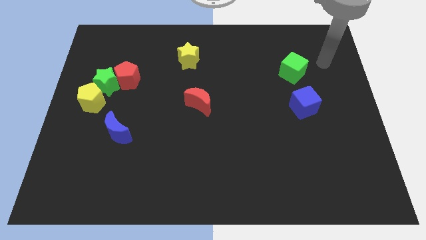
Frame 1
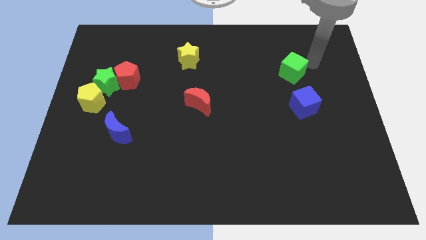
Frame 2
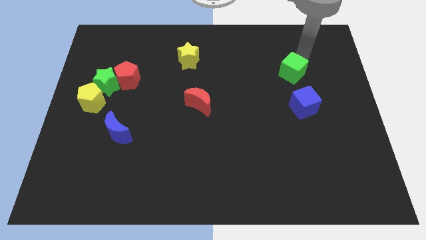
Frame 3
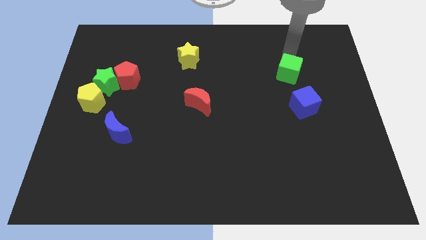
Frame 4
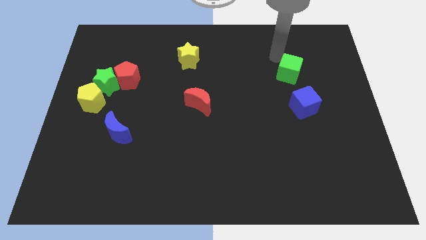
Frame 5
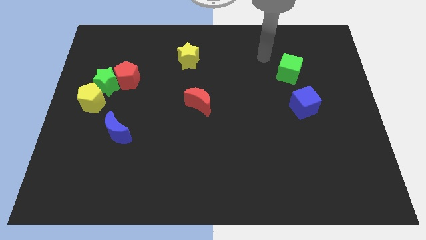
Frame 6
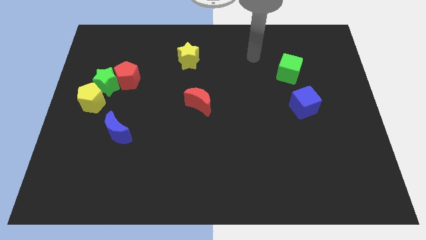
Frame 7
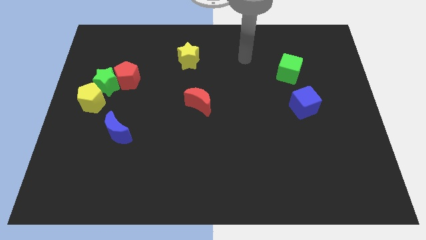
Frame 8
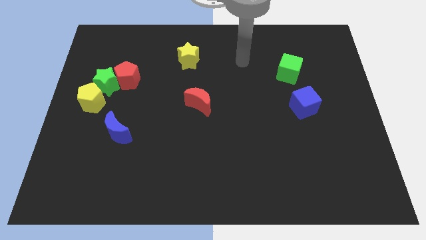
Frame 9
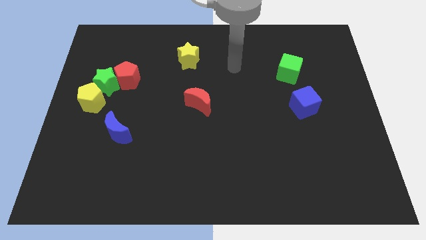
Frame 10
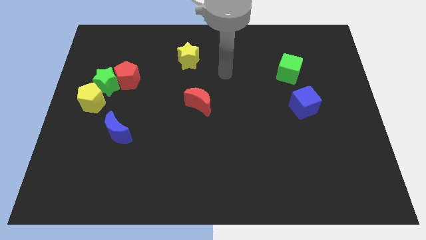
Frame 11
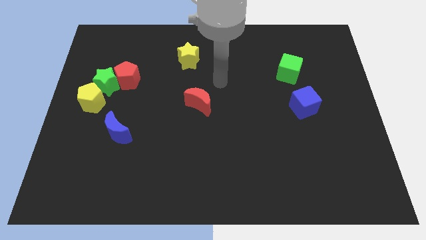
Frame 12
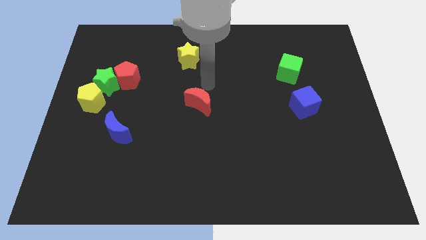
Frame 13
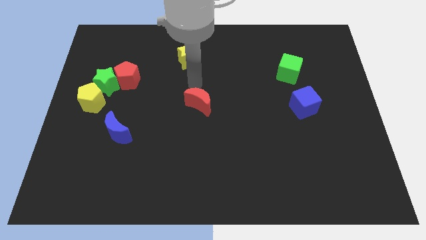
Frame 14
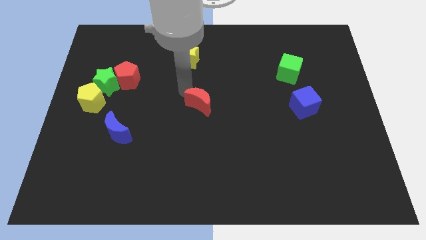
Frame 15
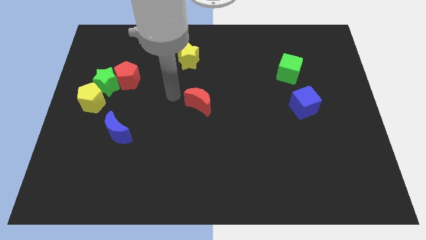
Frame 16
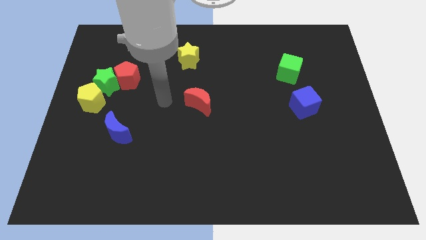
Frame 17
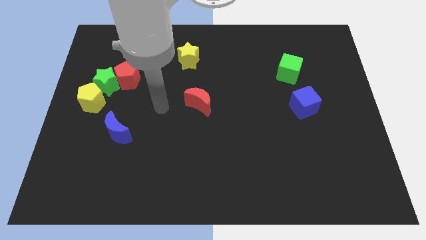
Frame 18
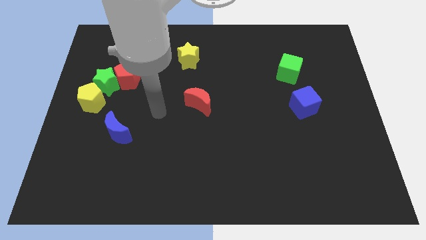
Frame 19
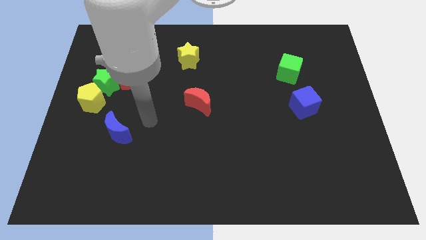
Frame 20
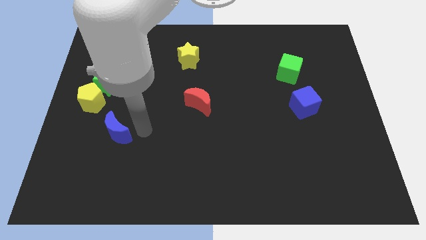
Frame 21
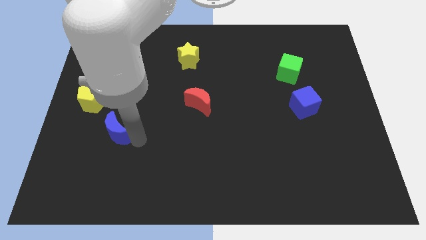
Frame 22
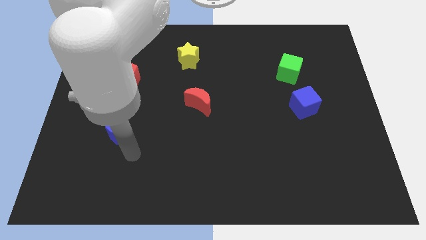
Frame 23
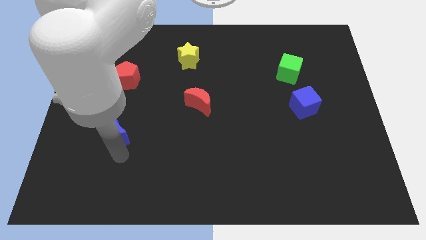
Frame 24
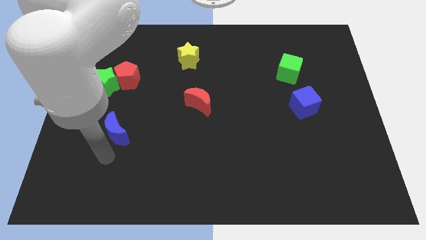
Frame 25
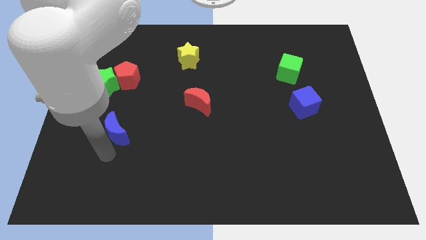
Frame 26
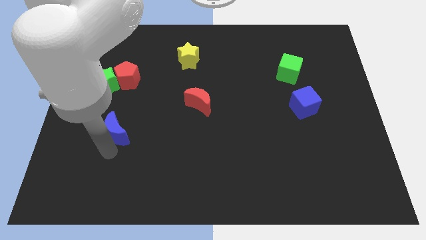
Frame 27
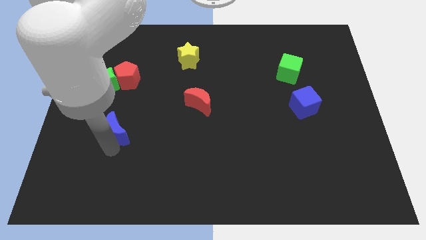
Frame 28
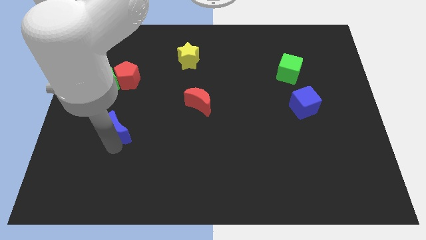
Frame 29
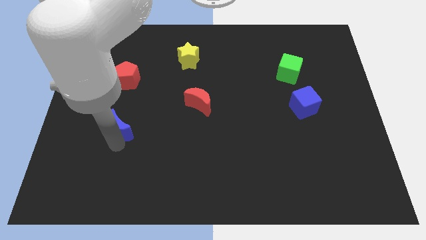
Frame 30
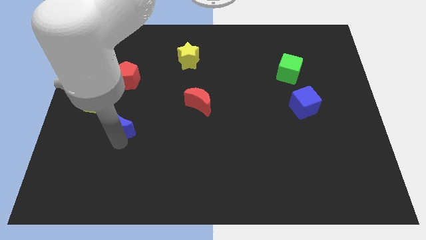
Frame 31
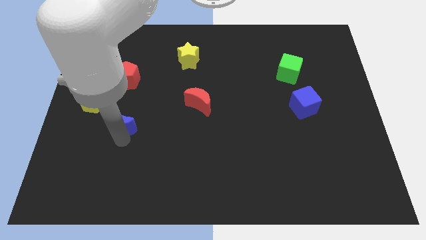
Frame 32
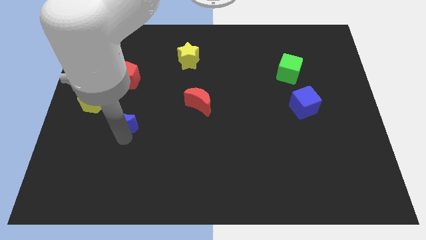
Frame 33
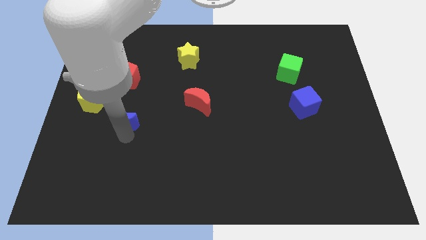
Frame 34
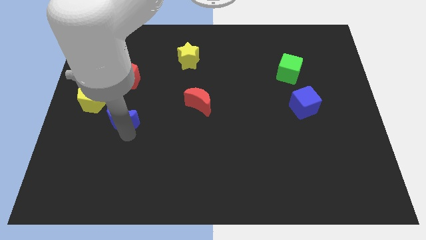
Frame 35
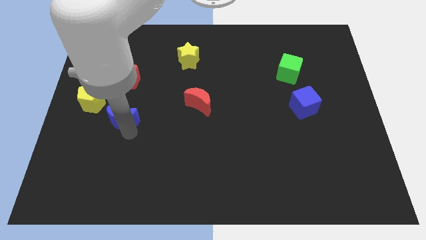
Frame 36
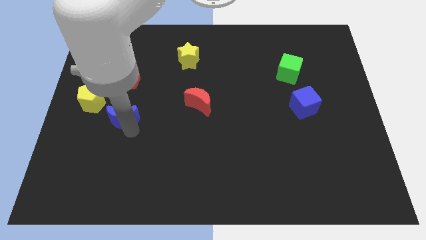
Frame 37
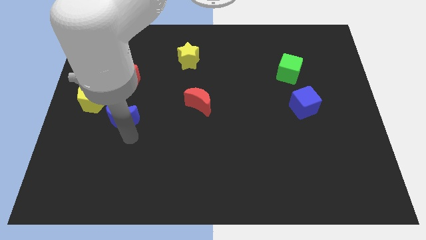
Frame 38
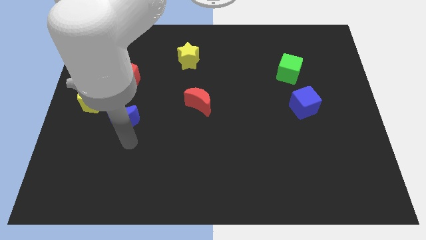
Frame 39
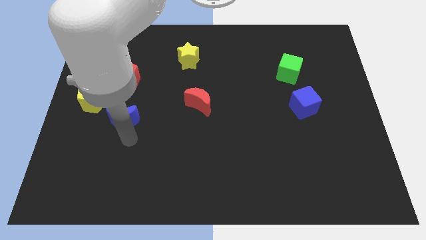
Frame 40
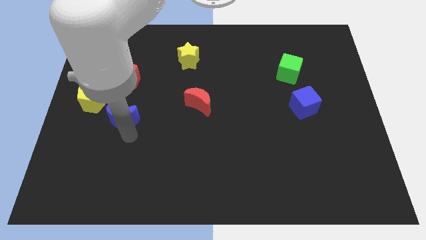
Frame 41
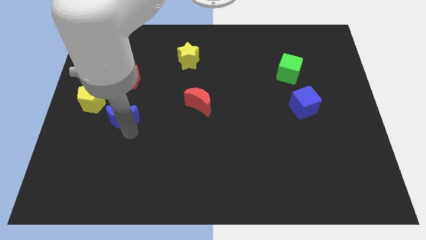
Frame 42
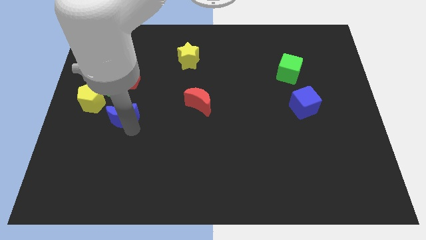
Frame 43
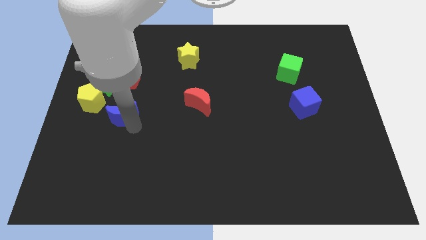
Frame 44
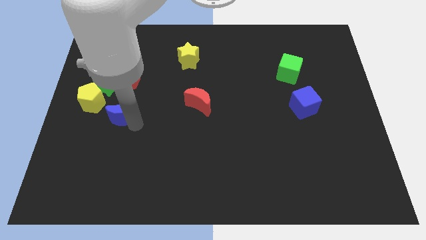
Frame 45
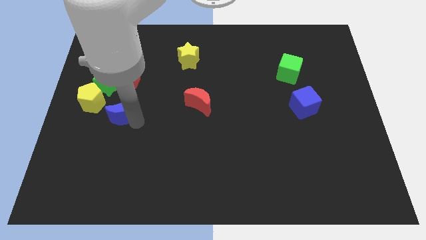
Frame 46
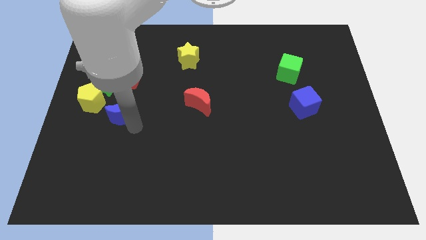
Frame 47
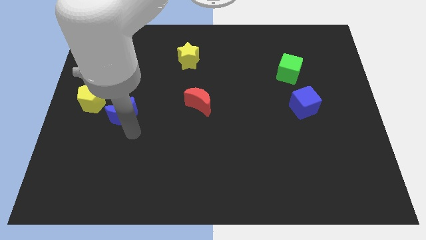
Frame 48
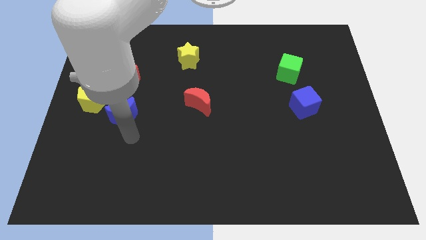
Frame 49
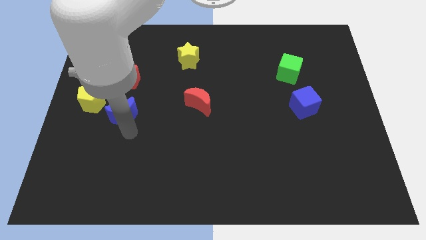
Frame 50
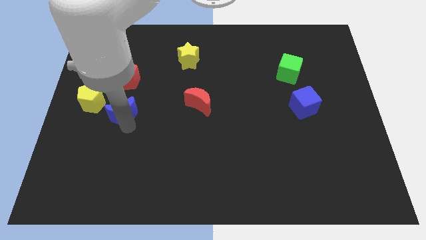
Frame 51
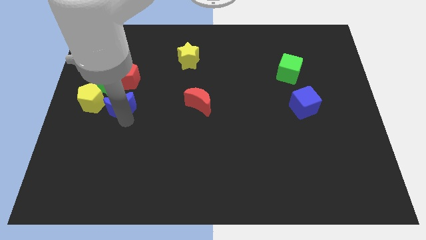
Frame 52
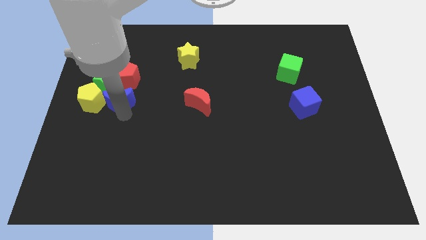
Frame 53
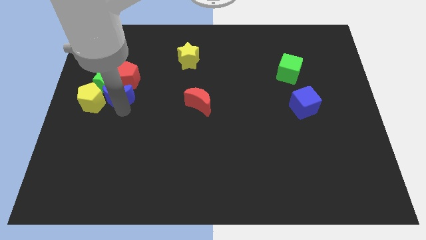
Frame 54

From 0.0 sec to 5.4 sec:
put the blue moon towards the green star

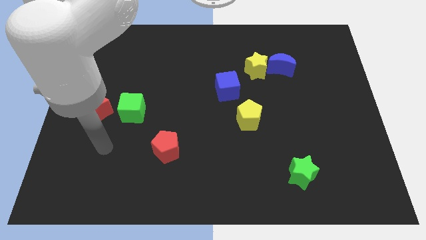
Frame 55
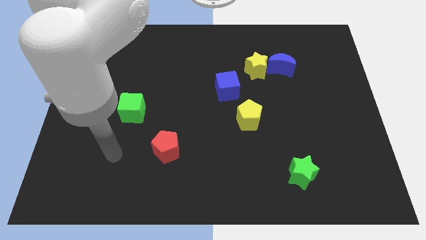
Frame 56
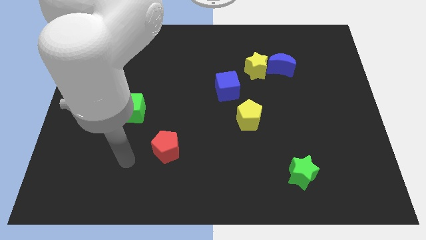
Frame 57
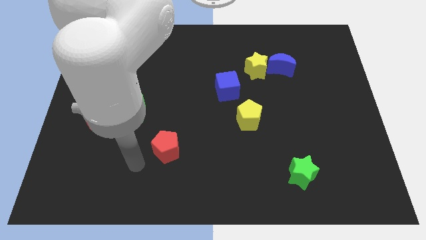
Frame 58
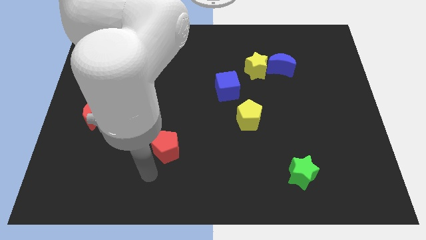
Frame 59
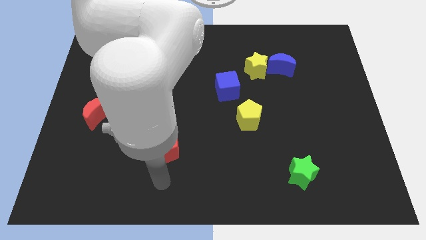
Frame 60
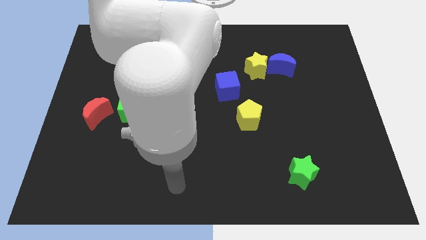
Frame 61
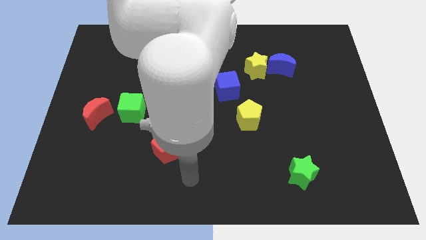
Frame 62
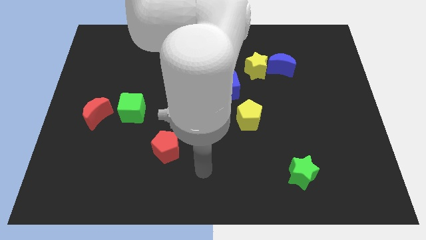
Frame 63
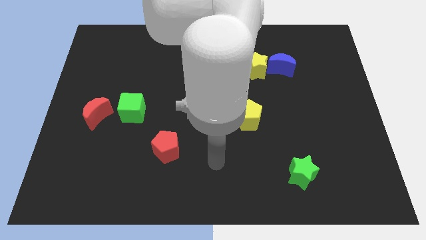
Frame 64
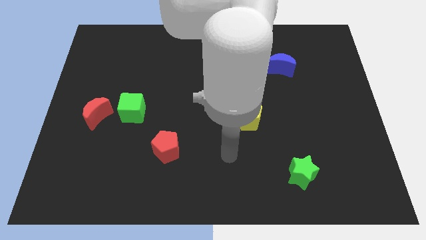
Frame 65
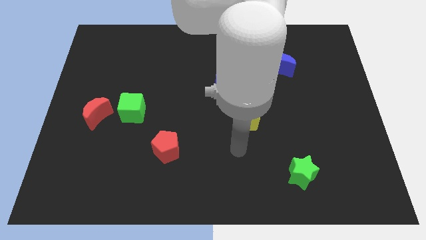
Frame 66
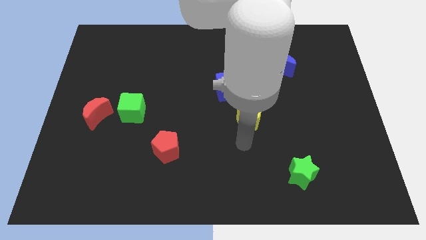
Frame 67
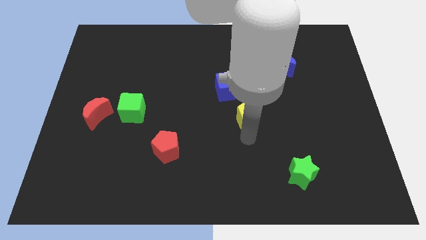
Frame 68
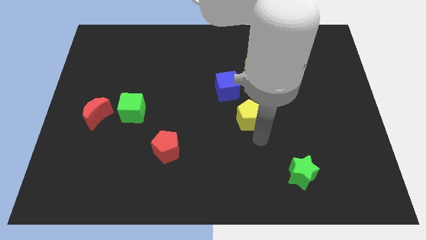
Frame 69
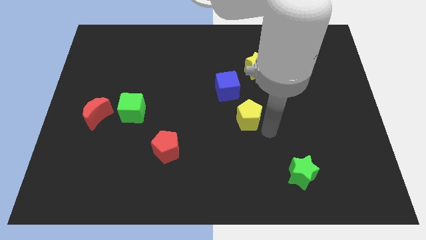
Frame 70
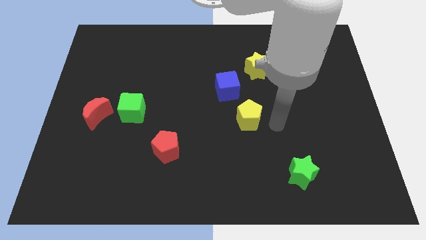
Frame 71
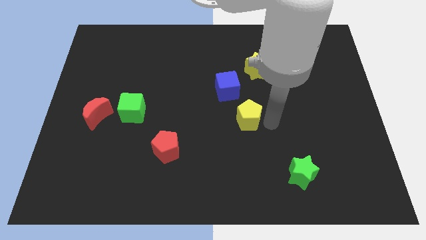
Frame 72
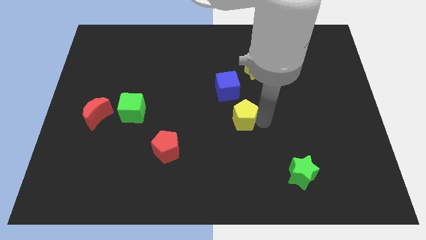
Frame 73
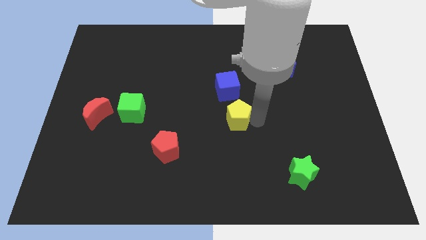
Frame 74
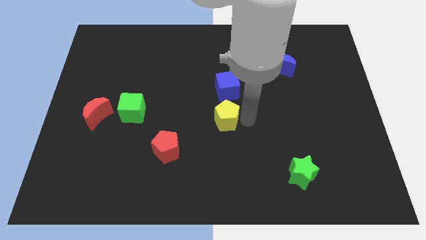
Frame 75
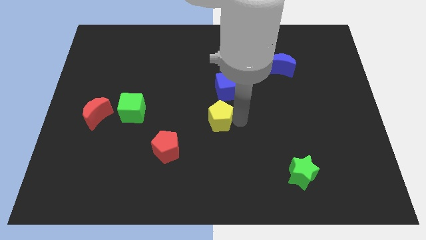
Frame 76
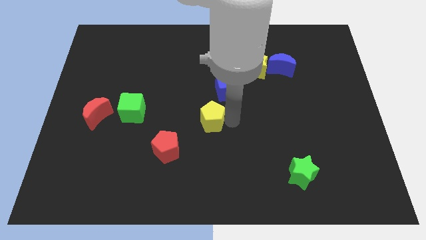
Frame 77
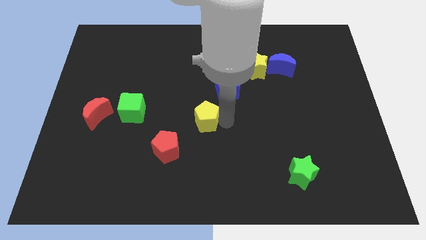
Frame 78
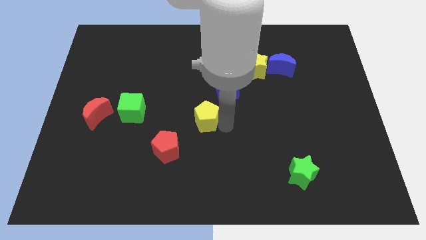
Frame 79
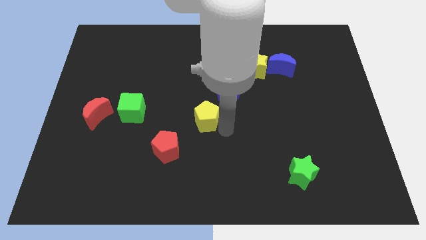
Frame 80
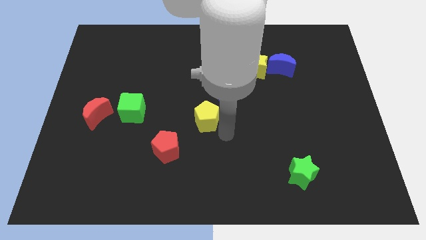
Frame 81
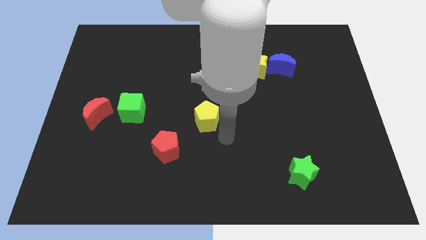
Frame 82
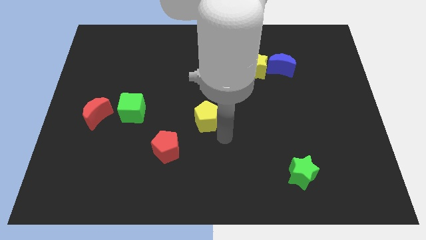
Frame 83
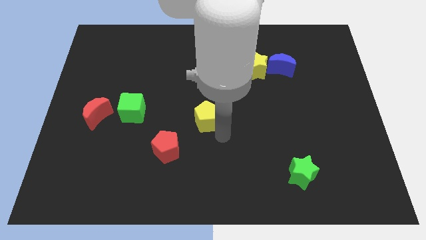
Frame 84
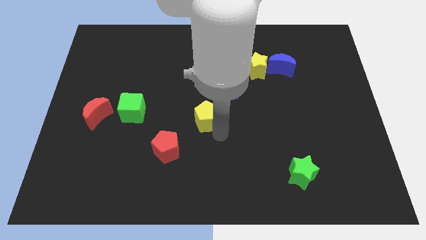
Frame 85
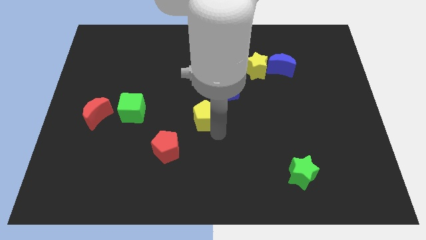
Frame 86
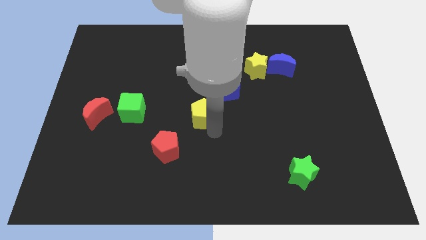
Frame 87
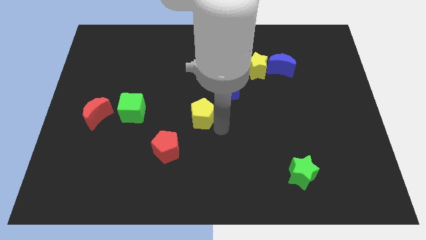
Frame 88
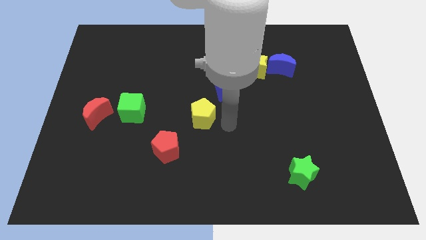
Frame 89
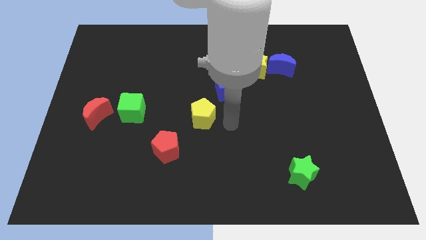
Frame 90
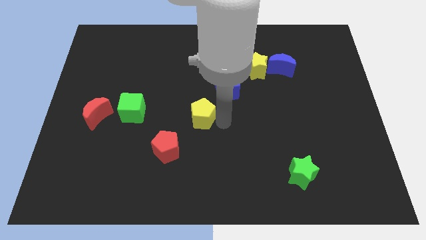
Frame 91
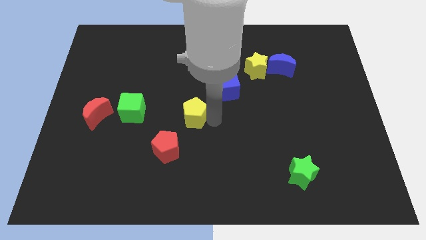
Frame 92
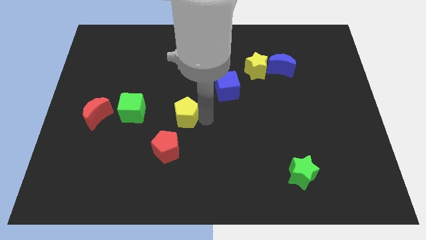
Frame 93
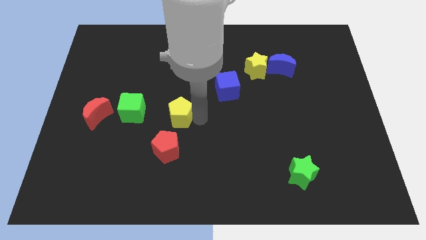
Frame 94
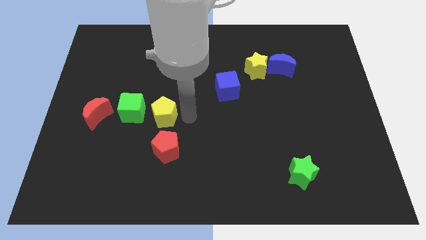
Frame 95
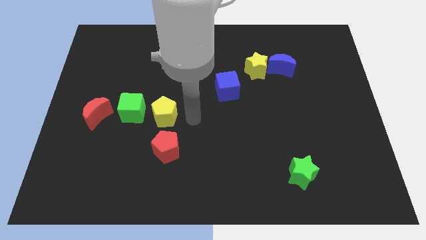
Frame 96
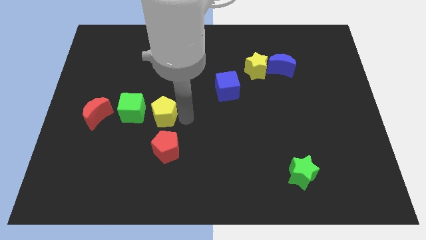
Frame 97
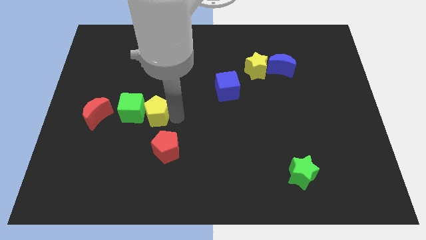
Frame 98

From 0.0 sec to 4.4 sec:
move the yellow pentagon close to the green cube
